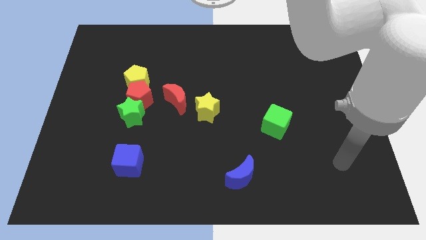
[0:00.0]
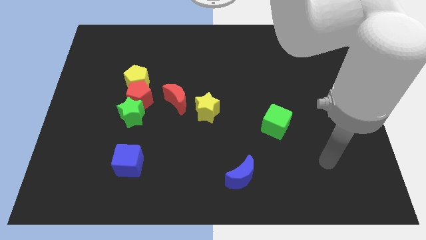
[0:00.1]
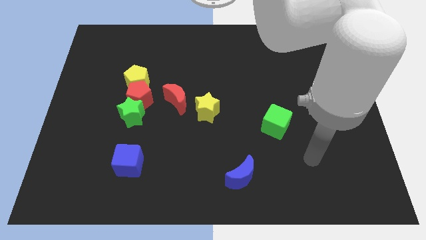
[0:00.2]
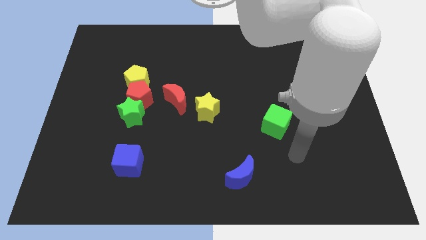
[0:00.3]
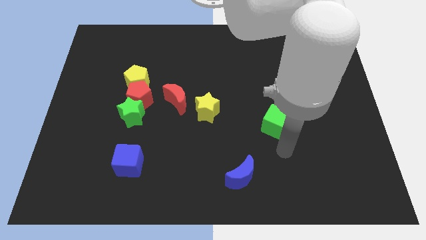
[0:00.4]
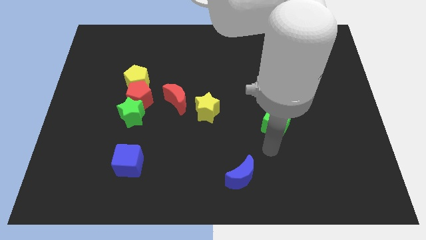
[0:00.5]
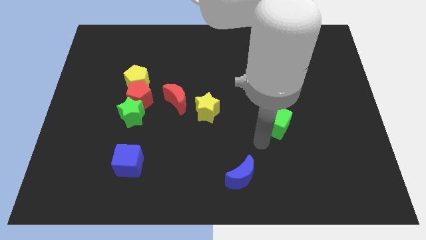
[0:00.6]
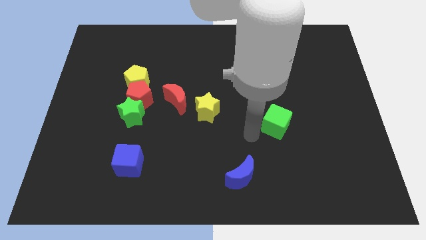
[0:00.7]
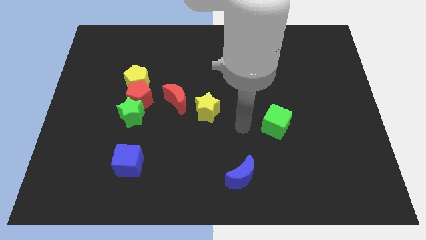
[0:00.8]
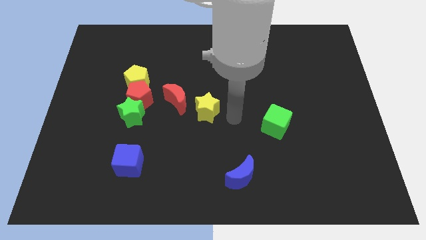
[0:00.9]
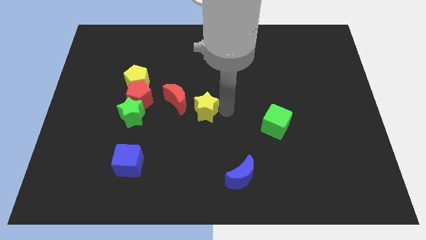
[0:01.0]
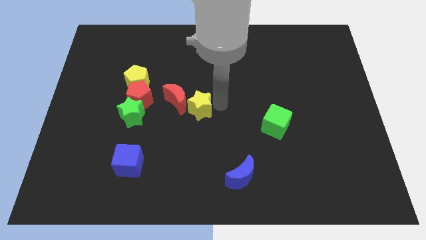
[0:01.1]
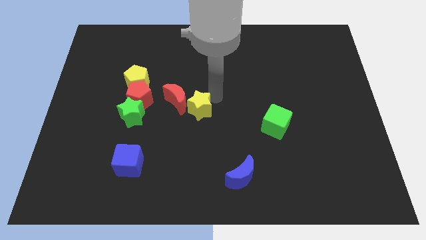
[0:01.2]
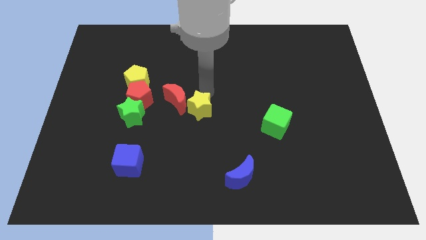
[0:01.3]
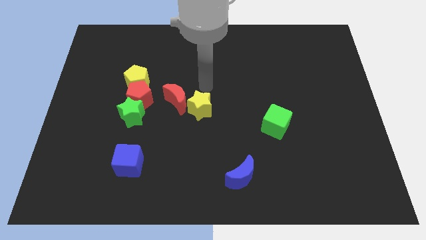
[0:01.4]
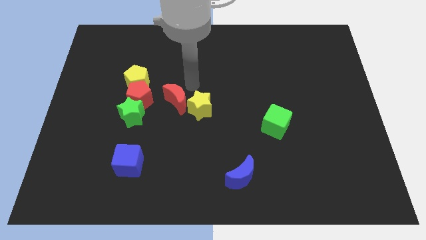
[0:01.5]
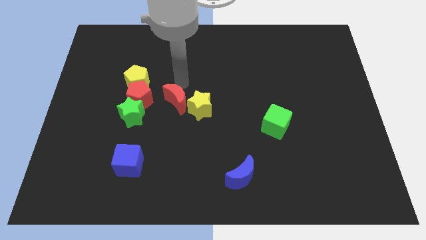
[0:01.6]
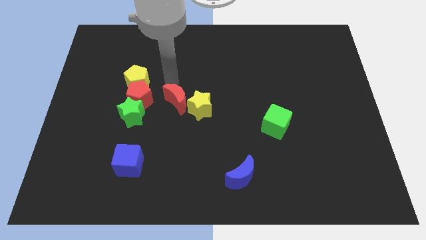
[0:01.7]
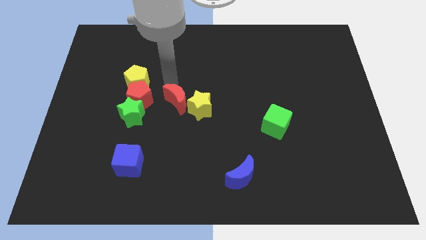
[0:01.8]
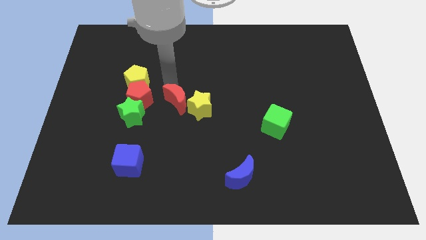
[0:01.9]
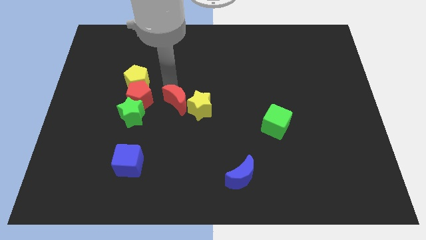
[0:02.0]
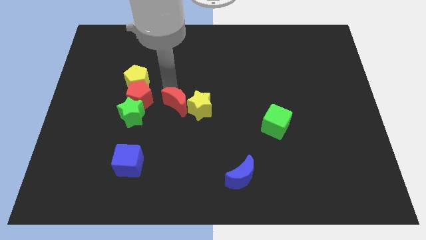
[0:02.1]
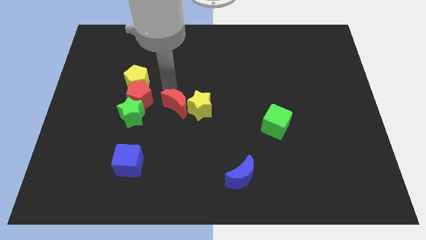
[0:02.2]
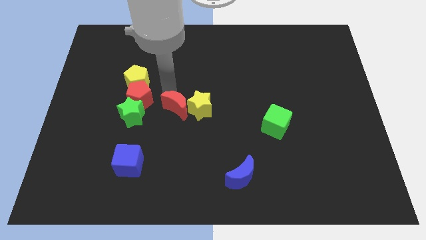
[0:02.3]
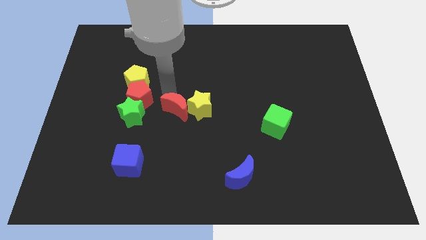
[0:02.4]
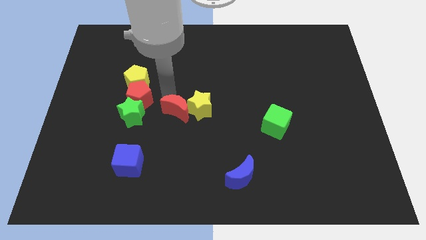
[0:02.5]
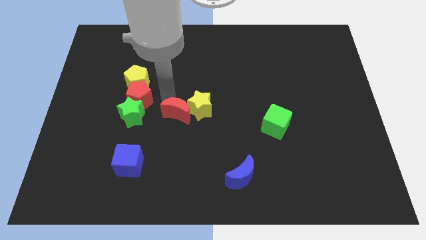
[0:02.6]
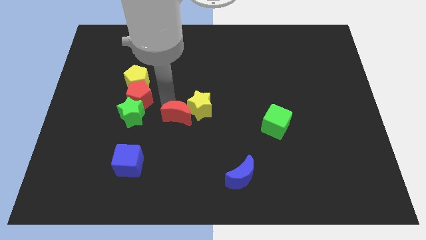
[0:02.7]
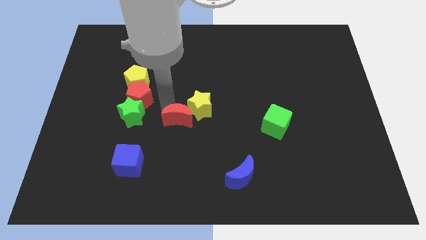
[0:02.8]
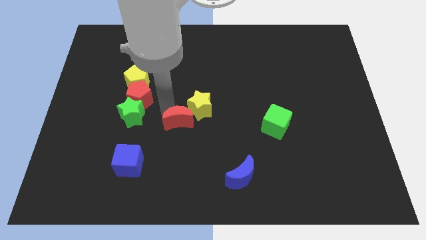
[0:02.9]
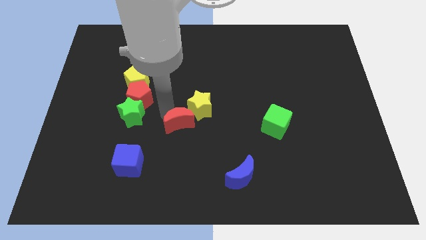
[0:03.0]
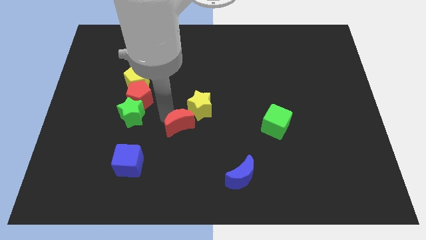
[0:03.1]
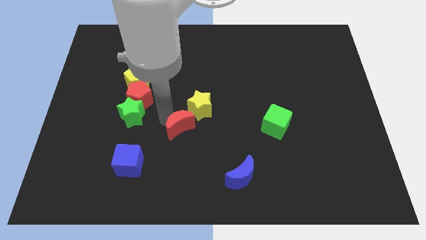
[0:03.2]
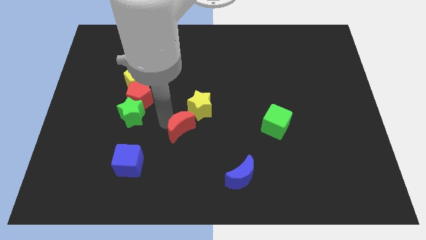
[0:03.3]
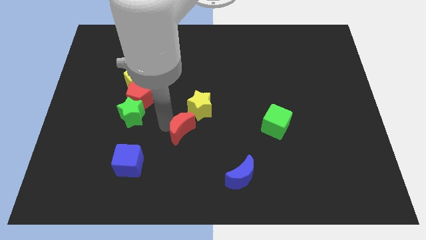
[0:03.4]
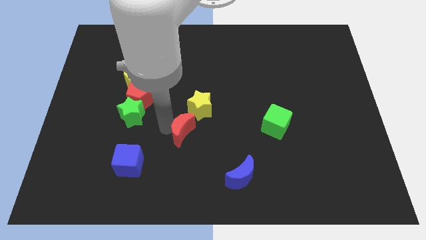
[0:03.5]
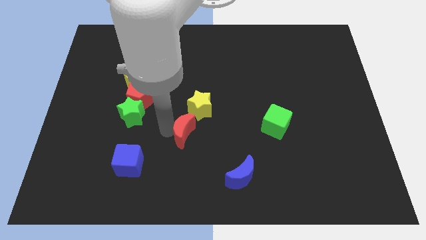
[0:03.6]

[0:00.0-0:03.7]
move the red moon downwards and to the right diagonally a little

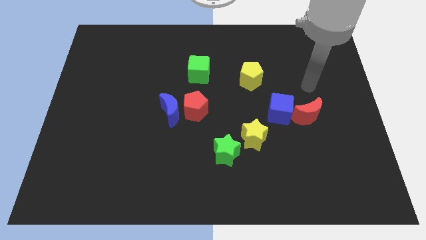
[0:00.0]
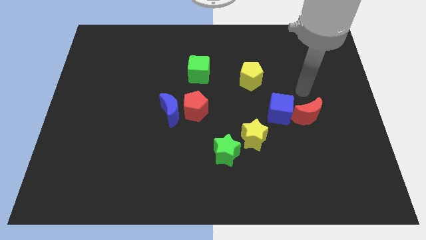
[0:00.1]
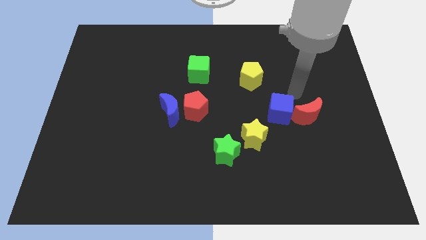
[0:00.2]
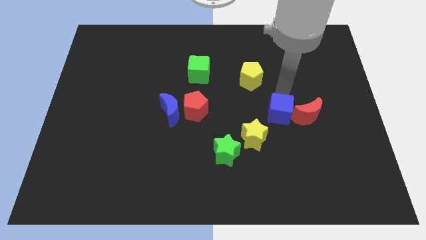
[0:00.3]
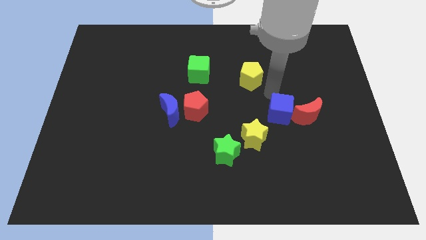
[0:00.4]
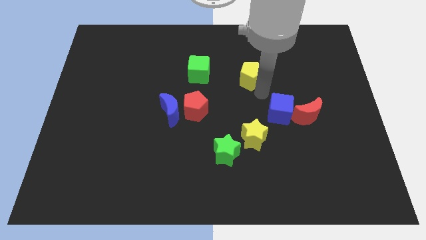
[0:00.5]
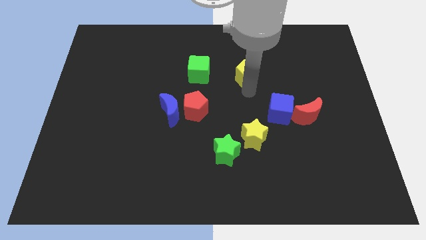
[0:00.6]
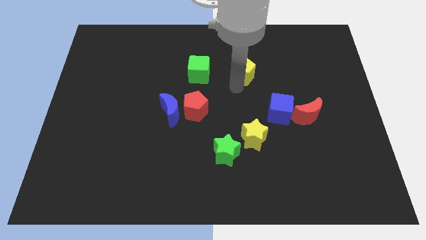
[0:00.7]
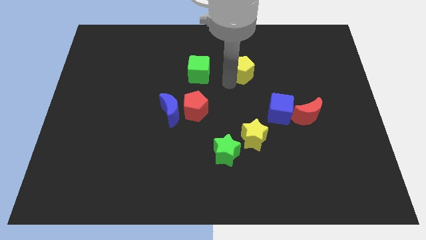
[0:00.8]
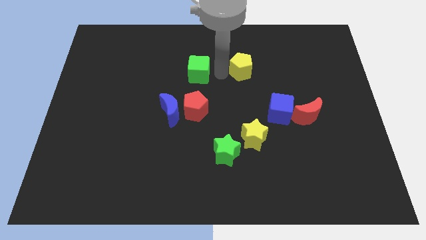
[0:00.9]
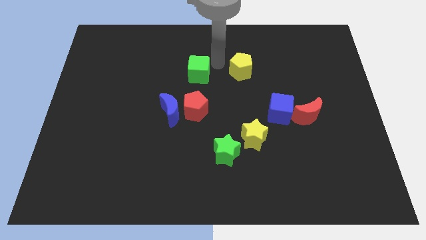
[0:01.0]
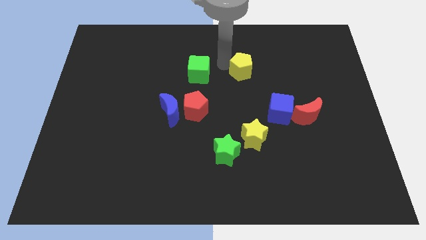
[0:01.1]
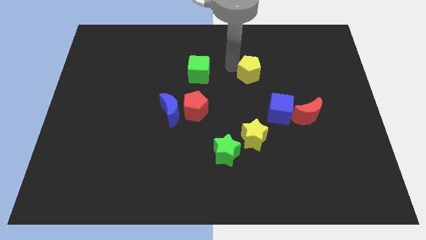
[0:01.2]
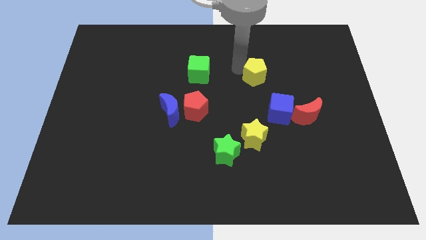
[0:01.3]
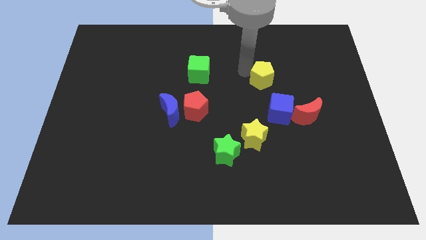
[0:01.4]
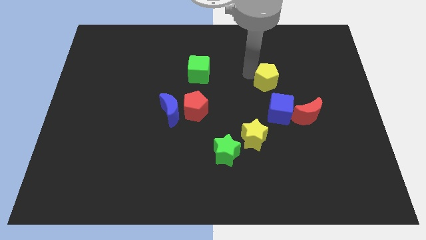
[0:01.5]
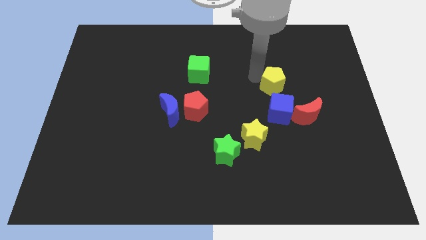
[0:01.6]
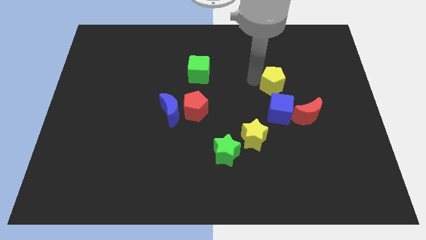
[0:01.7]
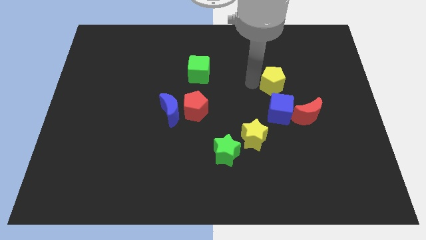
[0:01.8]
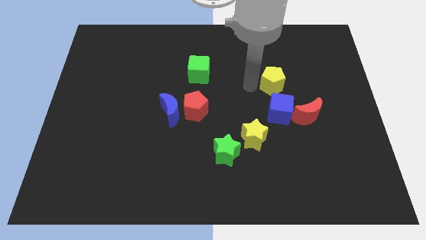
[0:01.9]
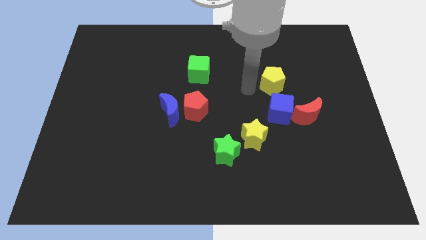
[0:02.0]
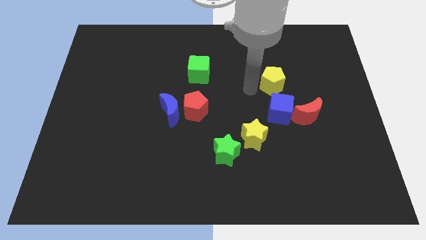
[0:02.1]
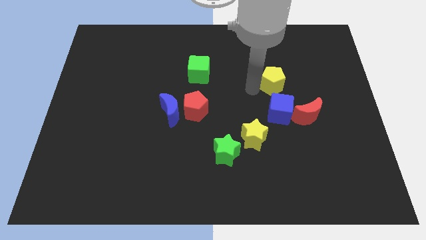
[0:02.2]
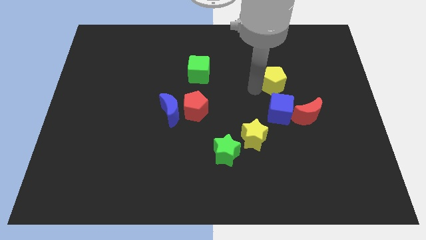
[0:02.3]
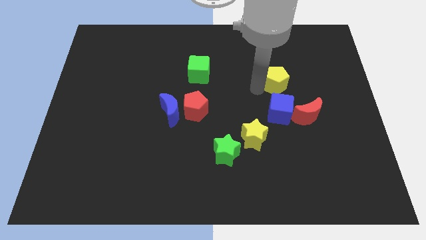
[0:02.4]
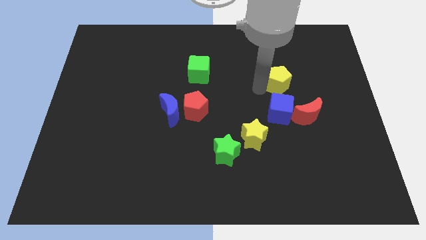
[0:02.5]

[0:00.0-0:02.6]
move the yellow pentagon slightly to the right

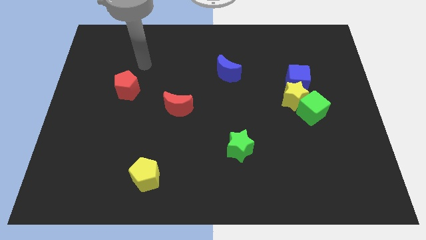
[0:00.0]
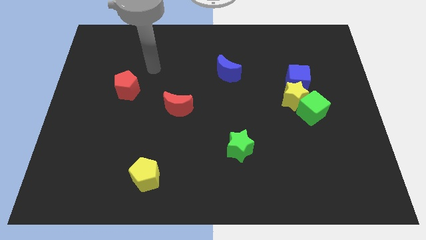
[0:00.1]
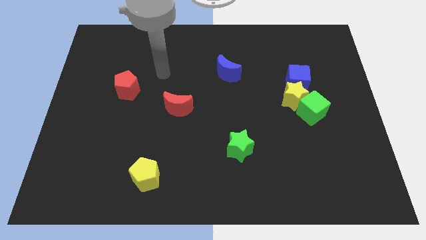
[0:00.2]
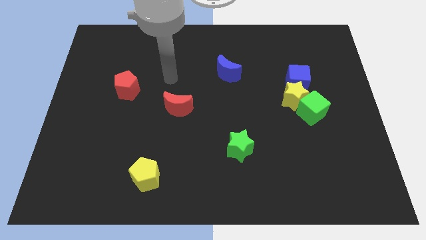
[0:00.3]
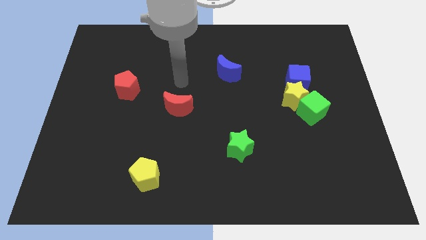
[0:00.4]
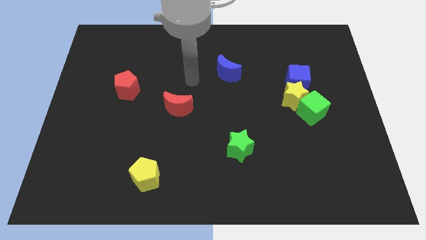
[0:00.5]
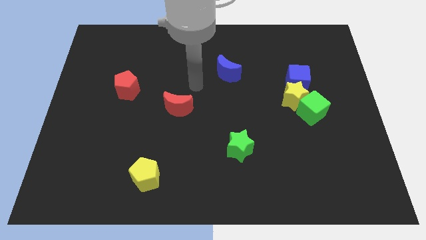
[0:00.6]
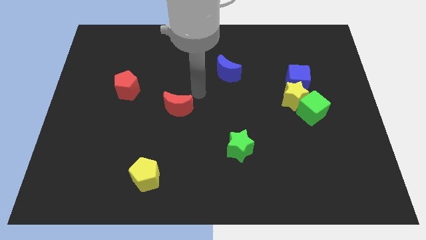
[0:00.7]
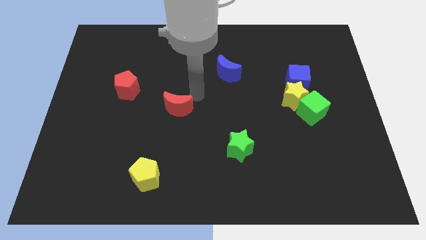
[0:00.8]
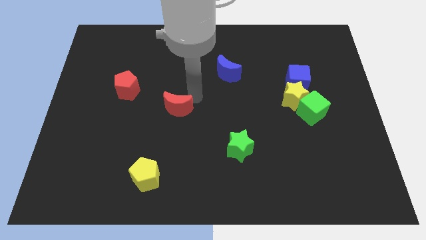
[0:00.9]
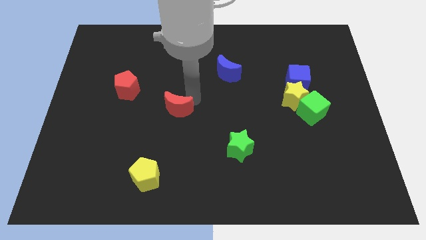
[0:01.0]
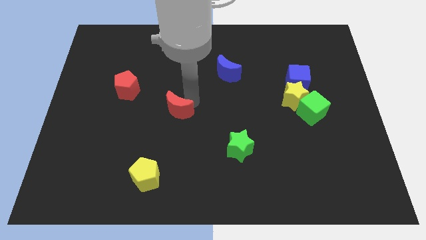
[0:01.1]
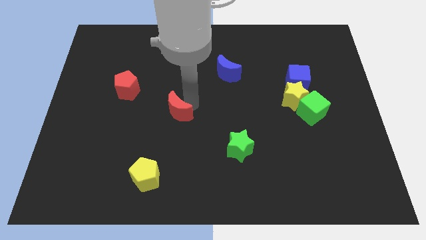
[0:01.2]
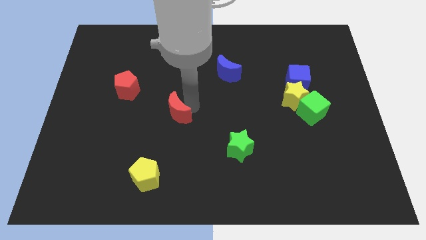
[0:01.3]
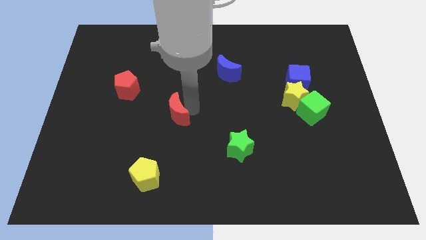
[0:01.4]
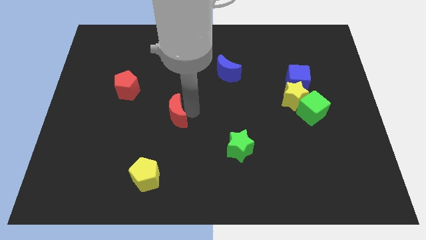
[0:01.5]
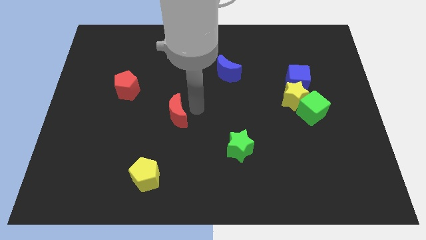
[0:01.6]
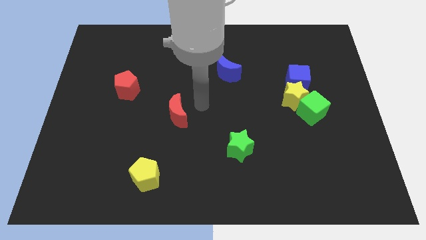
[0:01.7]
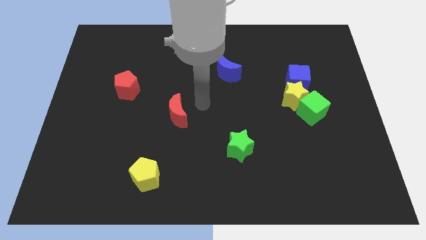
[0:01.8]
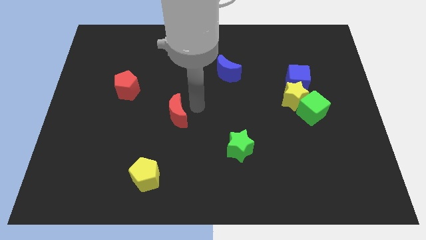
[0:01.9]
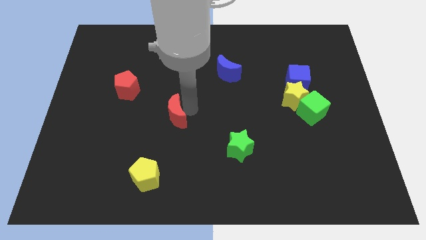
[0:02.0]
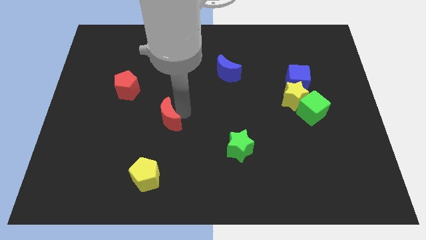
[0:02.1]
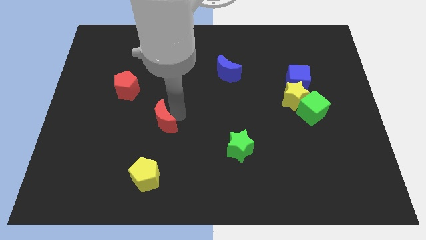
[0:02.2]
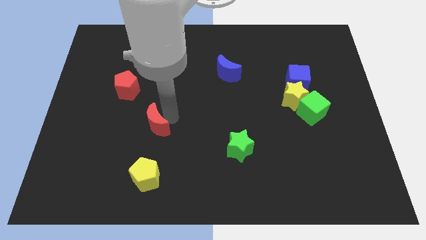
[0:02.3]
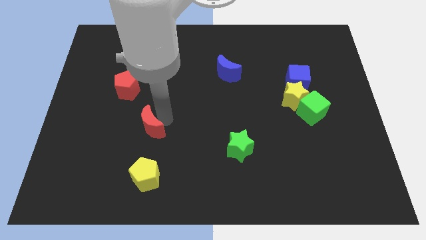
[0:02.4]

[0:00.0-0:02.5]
move the red moon down and left a little bit
